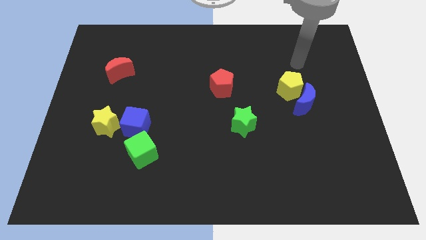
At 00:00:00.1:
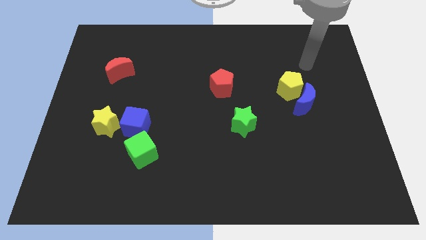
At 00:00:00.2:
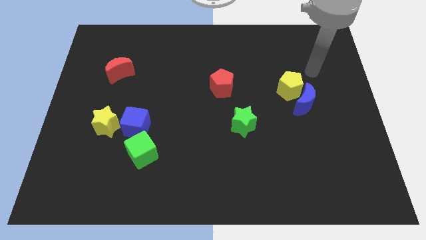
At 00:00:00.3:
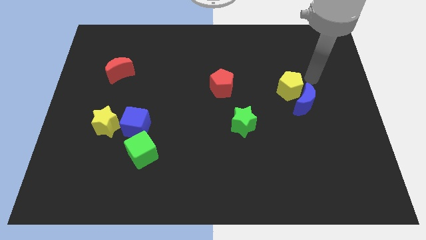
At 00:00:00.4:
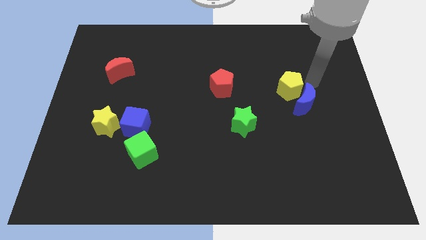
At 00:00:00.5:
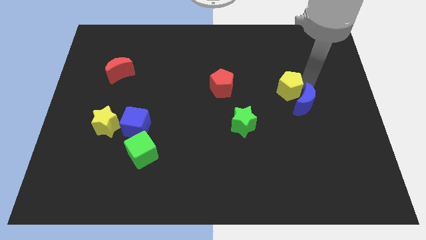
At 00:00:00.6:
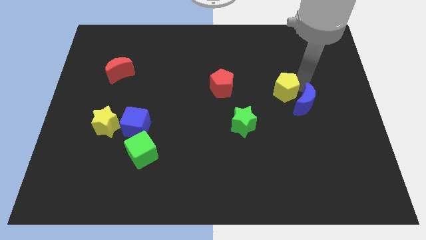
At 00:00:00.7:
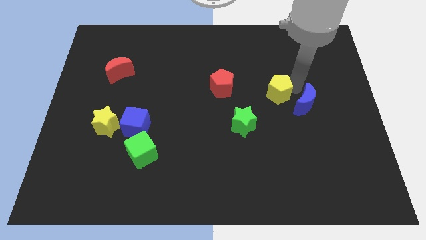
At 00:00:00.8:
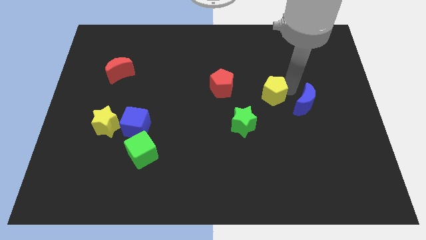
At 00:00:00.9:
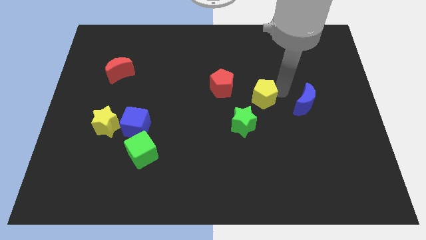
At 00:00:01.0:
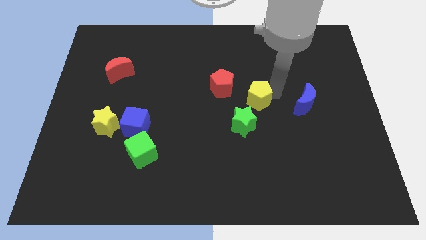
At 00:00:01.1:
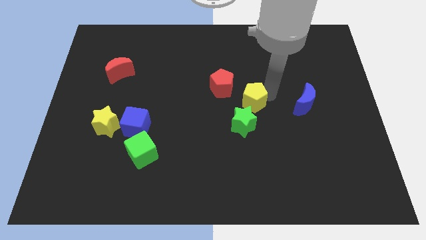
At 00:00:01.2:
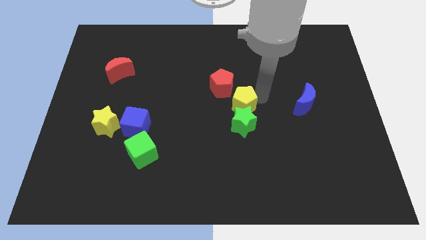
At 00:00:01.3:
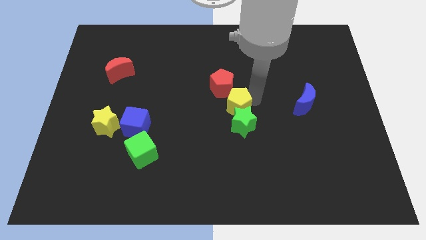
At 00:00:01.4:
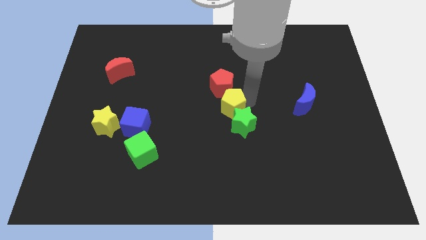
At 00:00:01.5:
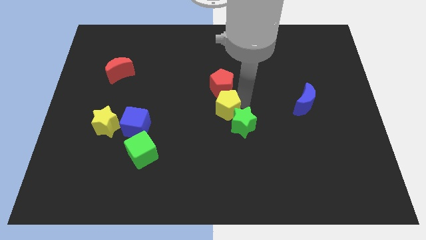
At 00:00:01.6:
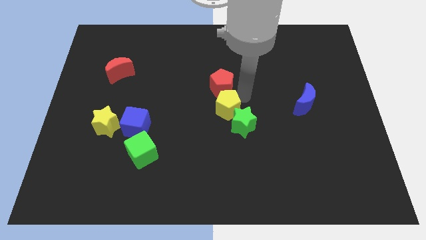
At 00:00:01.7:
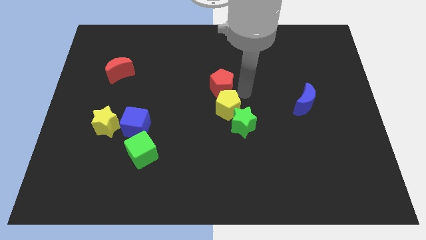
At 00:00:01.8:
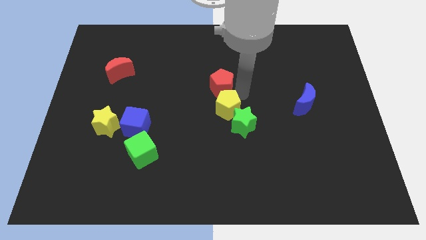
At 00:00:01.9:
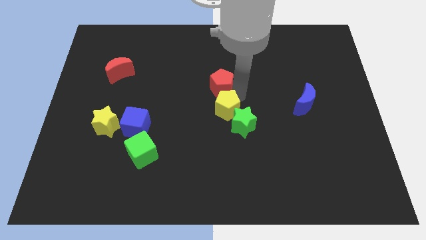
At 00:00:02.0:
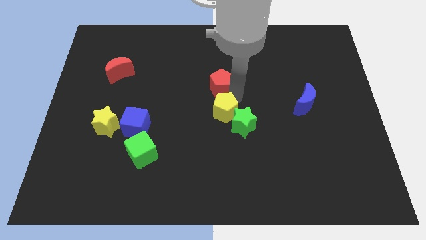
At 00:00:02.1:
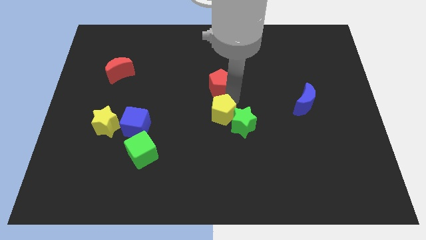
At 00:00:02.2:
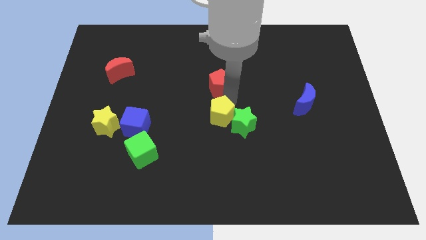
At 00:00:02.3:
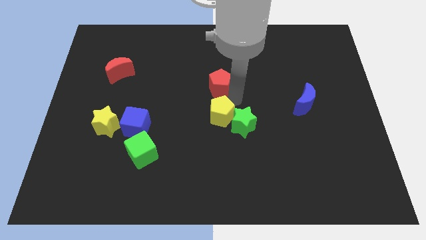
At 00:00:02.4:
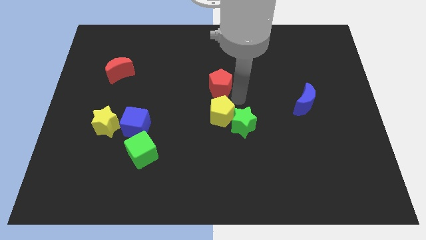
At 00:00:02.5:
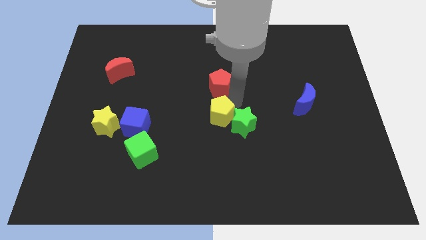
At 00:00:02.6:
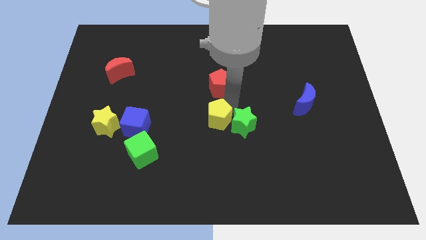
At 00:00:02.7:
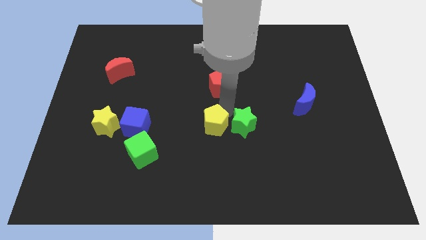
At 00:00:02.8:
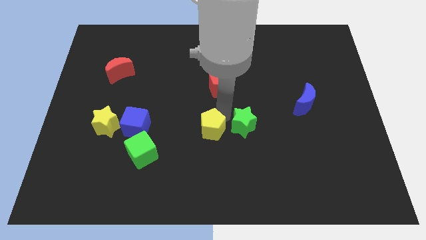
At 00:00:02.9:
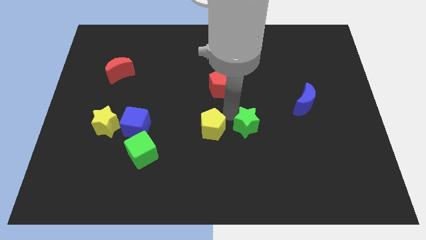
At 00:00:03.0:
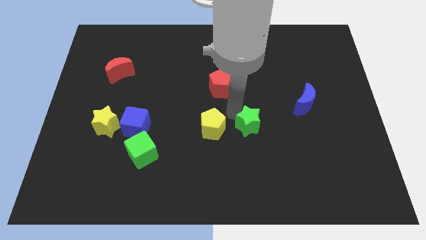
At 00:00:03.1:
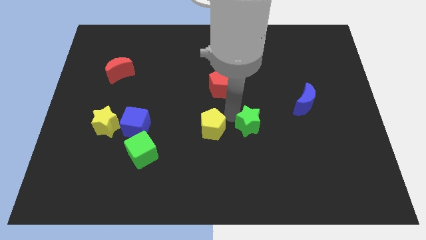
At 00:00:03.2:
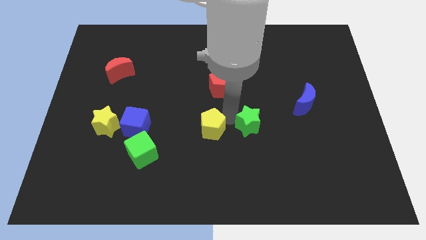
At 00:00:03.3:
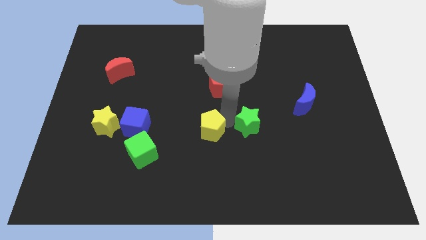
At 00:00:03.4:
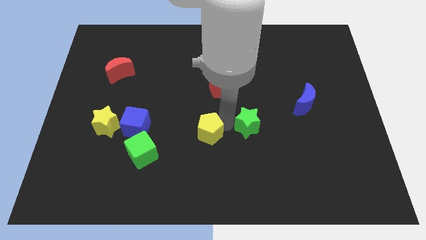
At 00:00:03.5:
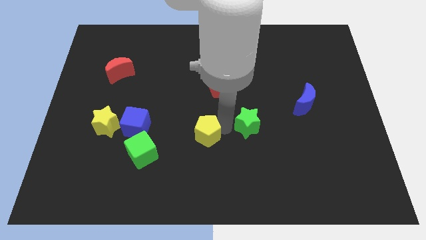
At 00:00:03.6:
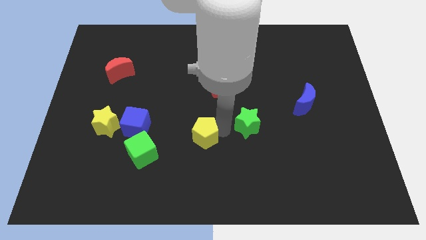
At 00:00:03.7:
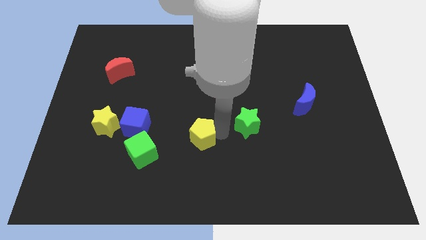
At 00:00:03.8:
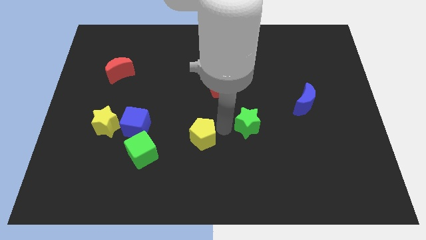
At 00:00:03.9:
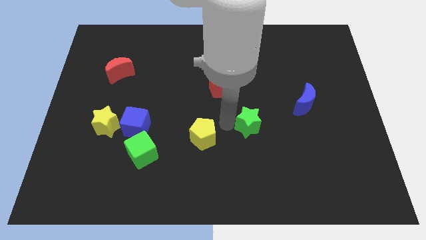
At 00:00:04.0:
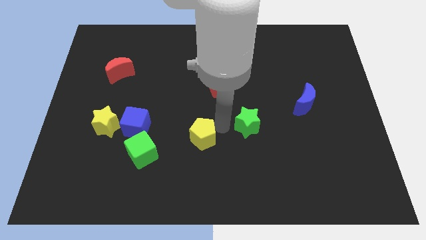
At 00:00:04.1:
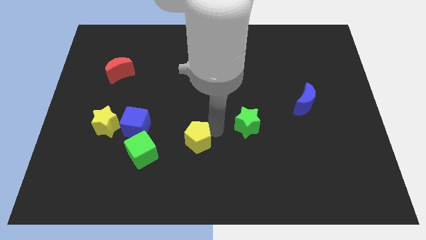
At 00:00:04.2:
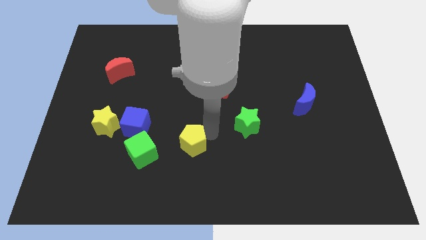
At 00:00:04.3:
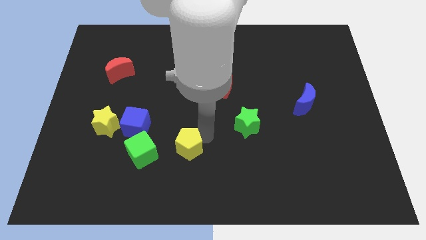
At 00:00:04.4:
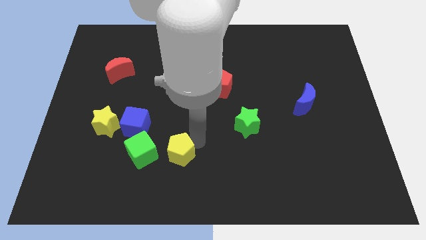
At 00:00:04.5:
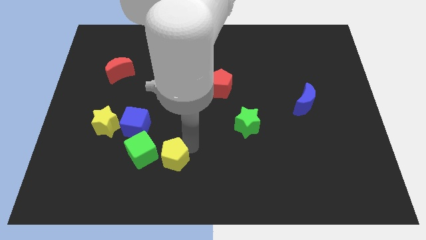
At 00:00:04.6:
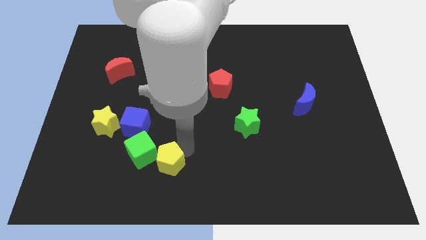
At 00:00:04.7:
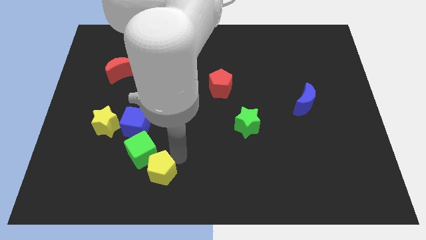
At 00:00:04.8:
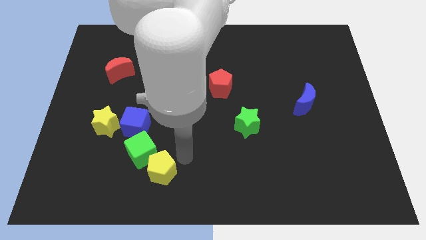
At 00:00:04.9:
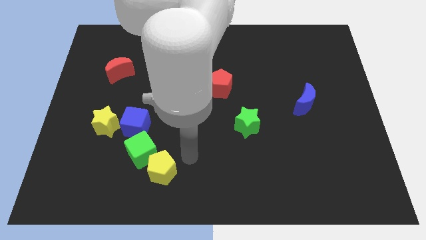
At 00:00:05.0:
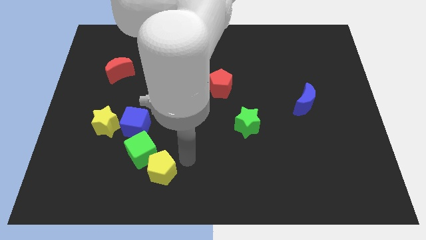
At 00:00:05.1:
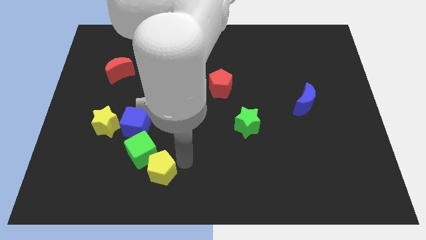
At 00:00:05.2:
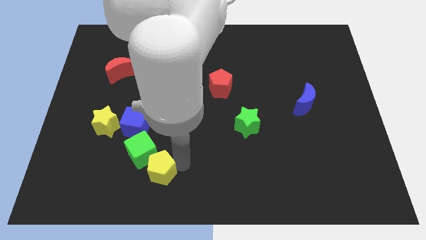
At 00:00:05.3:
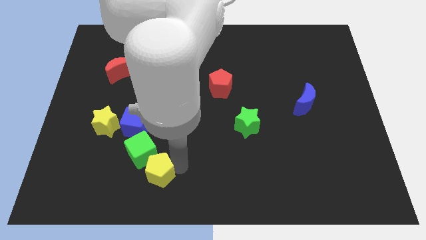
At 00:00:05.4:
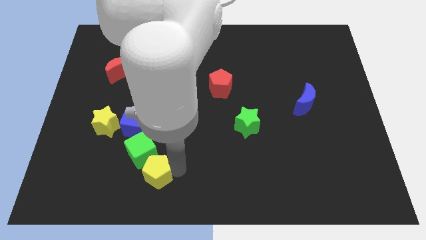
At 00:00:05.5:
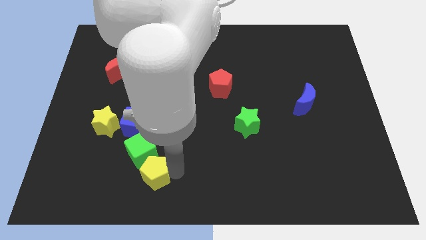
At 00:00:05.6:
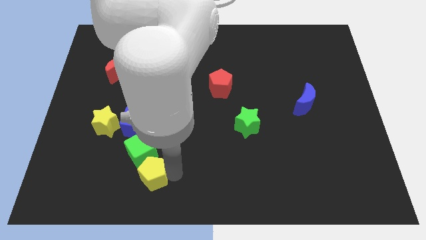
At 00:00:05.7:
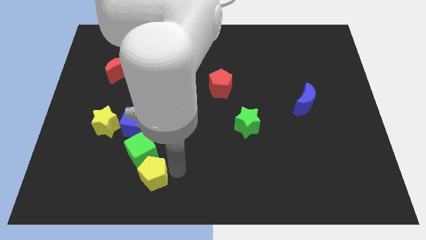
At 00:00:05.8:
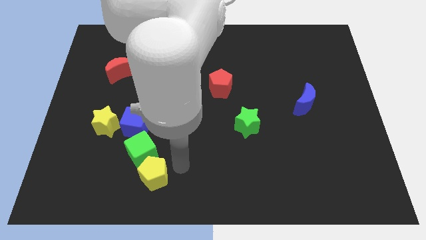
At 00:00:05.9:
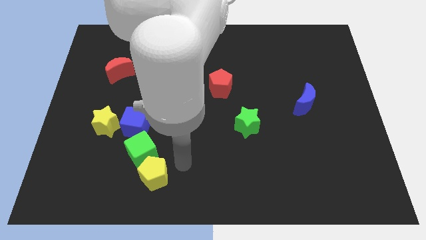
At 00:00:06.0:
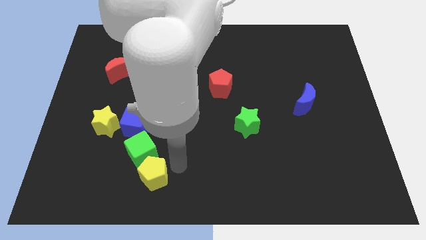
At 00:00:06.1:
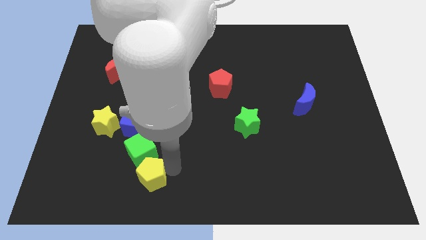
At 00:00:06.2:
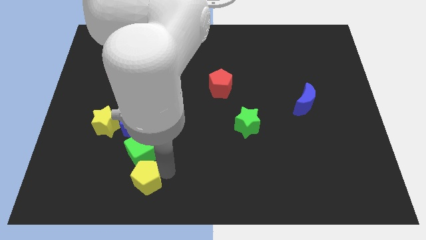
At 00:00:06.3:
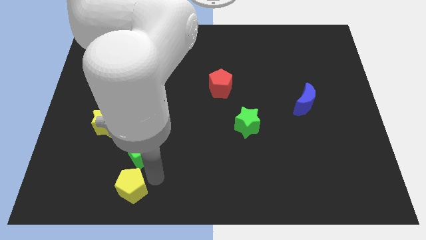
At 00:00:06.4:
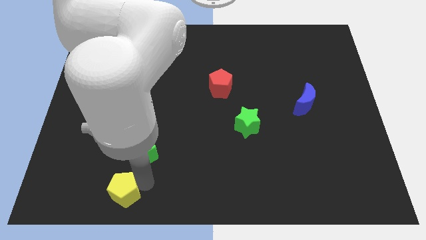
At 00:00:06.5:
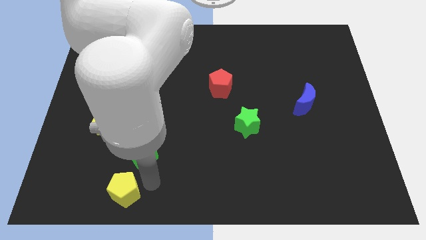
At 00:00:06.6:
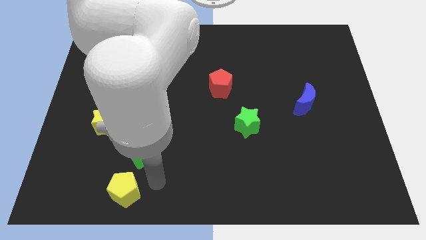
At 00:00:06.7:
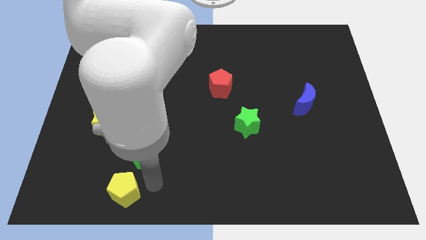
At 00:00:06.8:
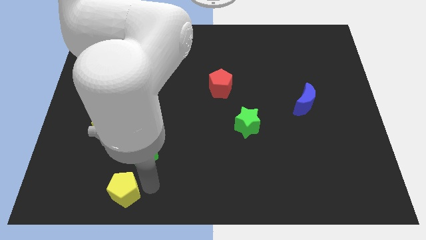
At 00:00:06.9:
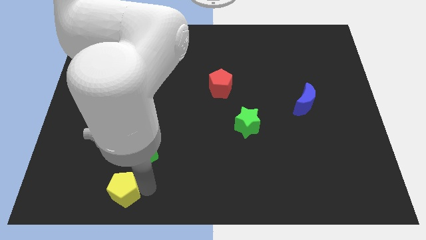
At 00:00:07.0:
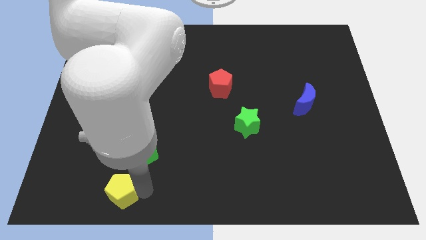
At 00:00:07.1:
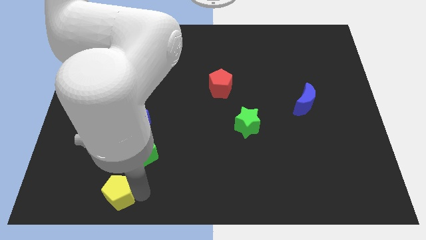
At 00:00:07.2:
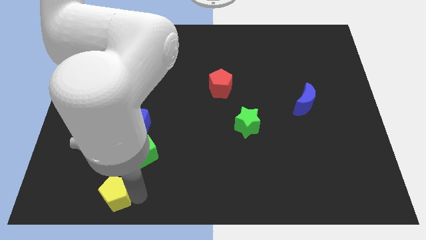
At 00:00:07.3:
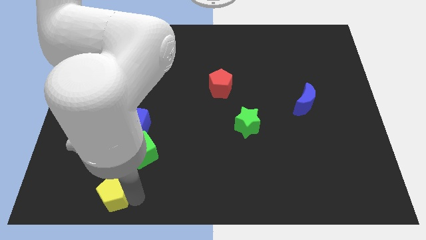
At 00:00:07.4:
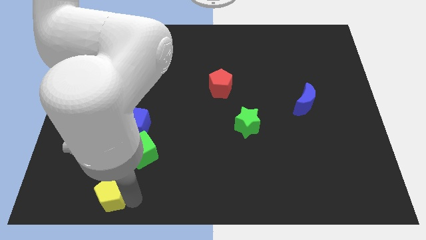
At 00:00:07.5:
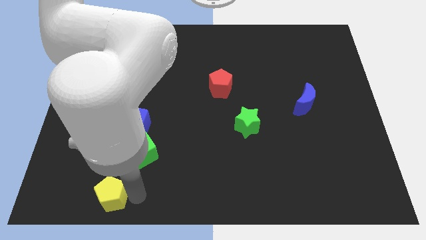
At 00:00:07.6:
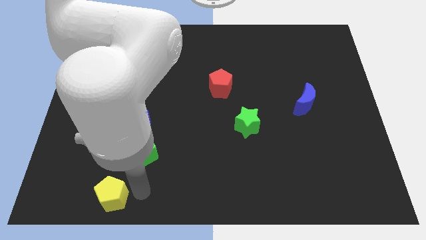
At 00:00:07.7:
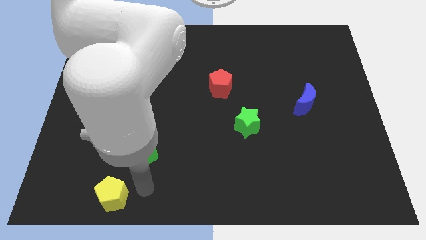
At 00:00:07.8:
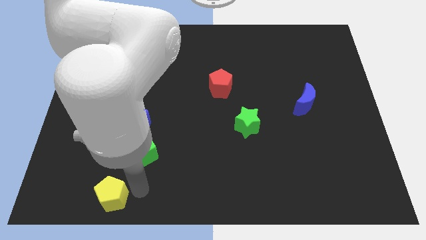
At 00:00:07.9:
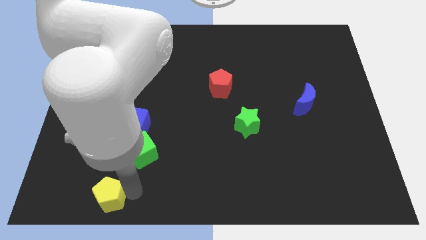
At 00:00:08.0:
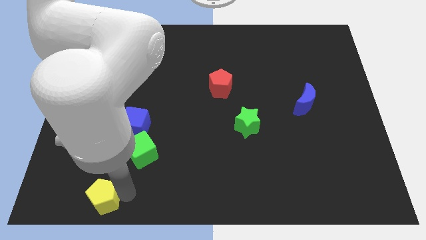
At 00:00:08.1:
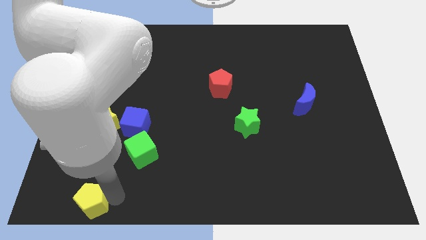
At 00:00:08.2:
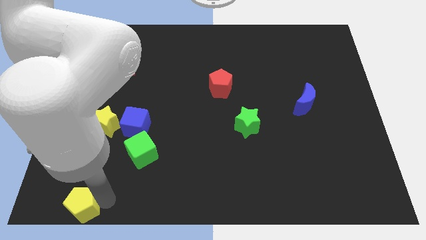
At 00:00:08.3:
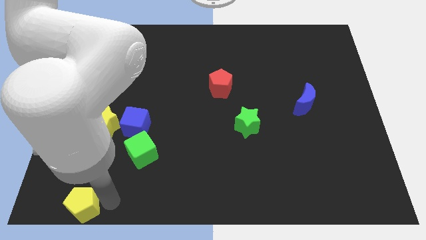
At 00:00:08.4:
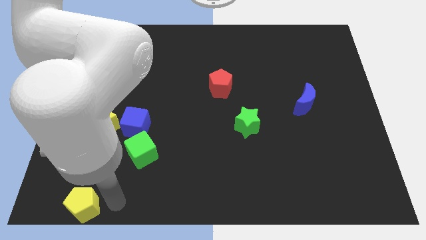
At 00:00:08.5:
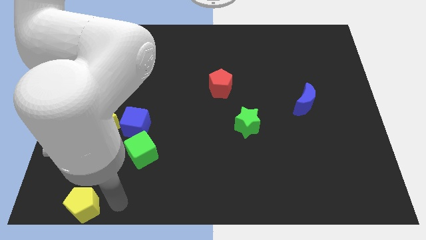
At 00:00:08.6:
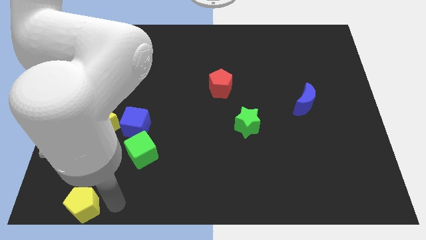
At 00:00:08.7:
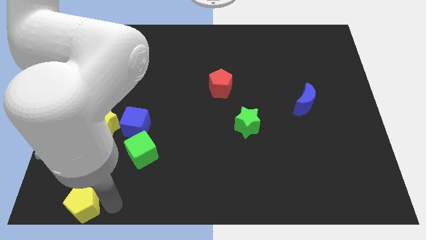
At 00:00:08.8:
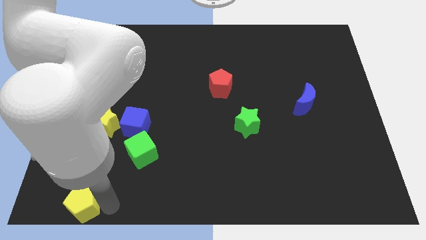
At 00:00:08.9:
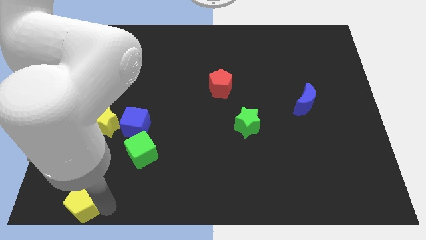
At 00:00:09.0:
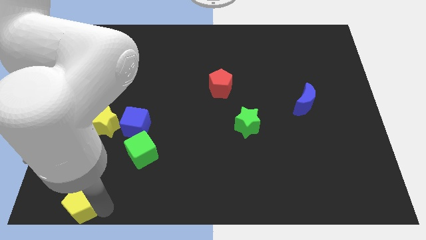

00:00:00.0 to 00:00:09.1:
slide the yellow pentagon to the bottom left of the board
